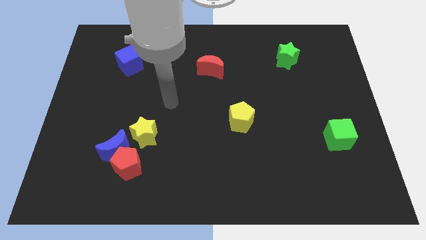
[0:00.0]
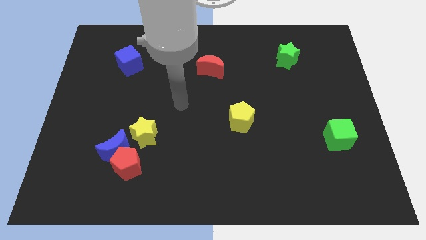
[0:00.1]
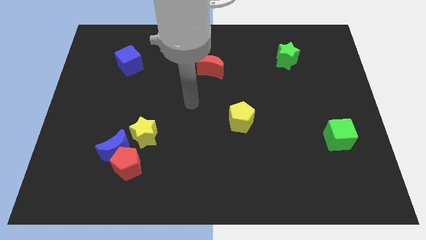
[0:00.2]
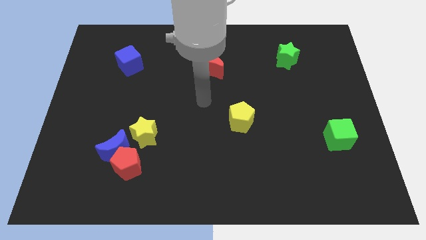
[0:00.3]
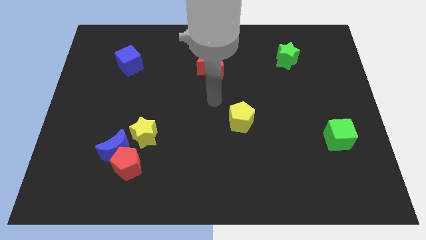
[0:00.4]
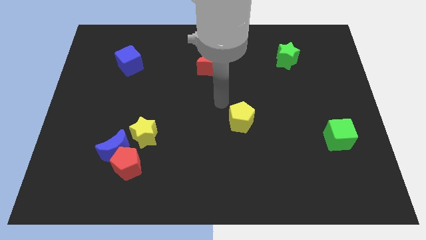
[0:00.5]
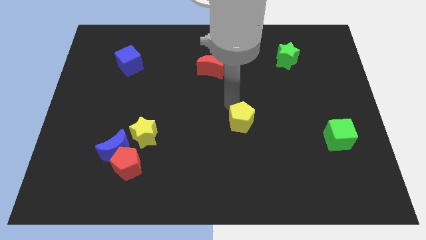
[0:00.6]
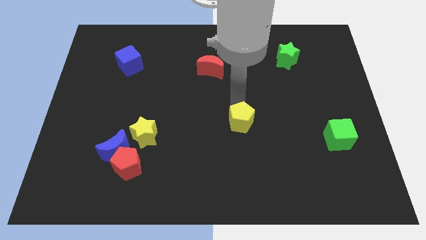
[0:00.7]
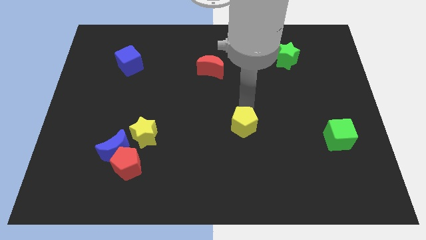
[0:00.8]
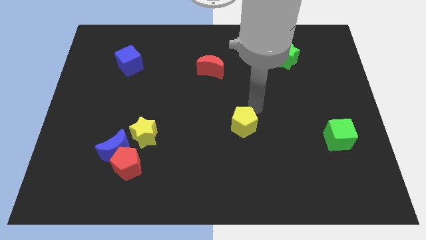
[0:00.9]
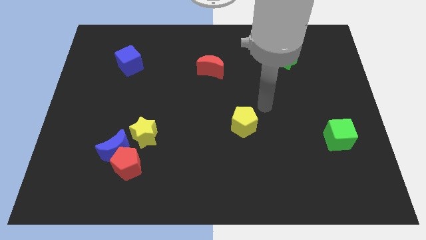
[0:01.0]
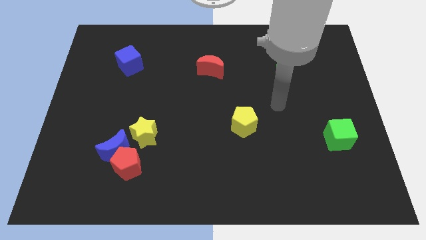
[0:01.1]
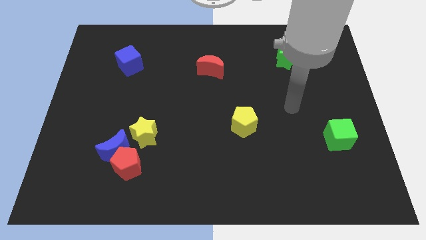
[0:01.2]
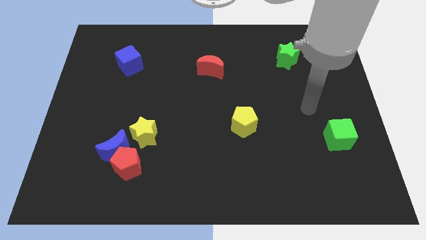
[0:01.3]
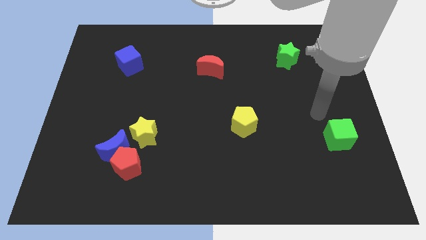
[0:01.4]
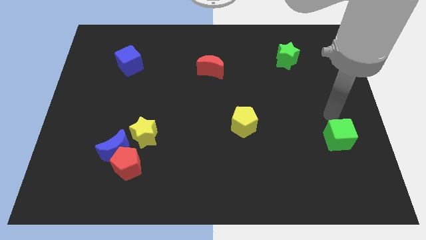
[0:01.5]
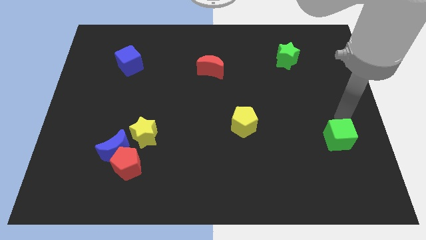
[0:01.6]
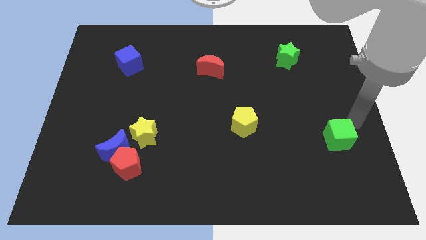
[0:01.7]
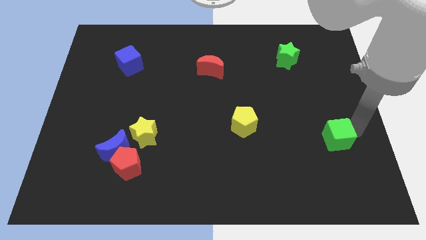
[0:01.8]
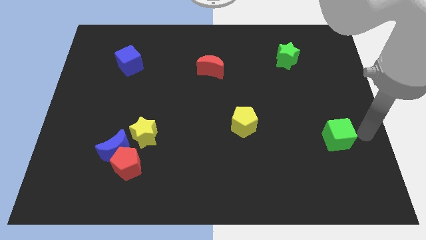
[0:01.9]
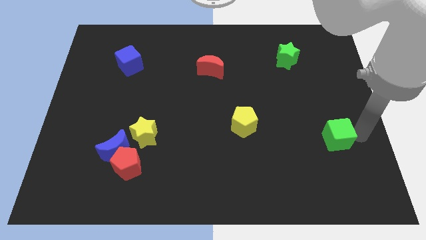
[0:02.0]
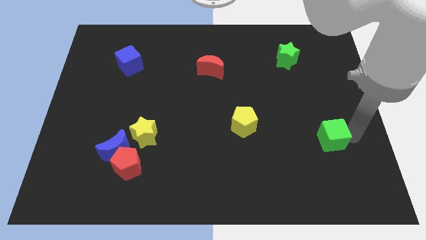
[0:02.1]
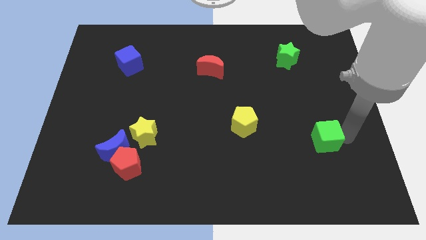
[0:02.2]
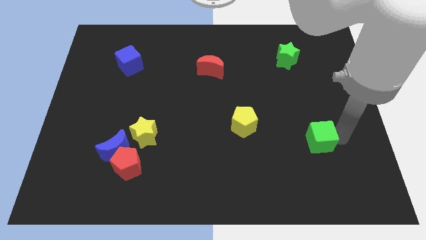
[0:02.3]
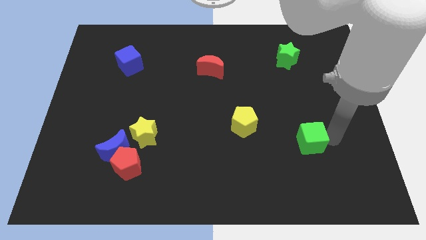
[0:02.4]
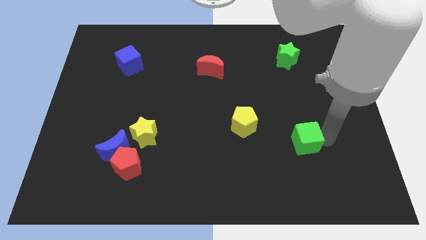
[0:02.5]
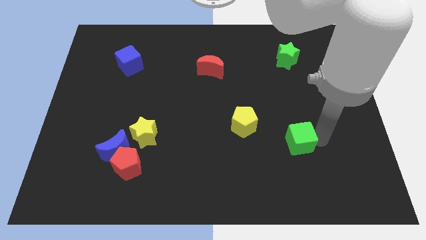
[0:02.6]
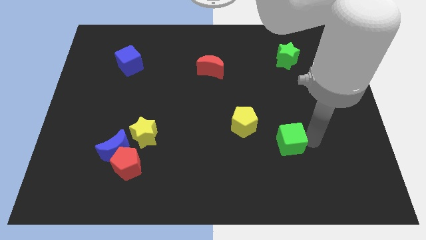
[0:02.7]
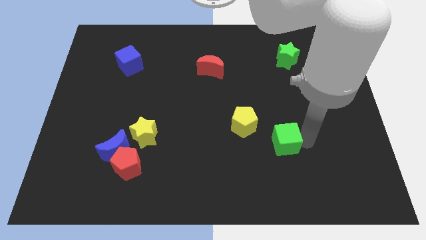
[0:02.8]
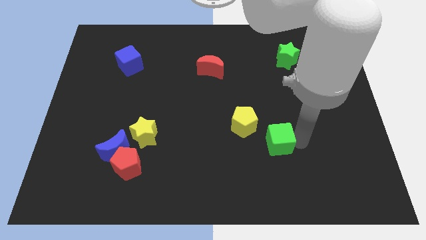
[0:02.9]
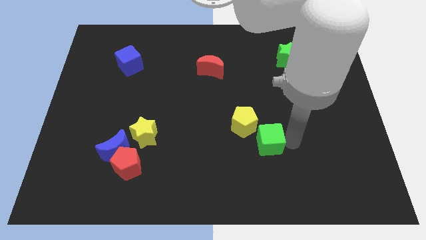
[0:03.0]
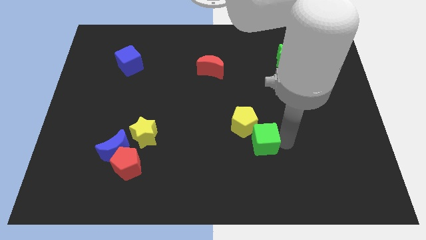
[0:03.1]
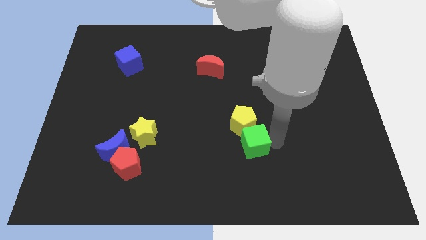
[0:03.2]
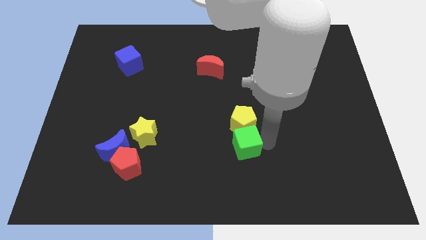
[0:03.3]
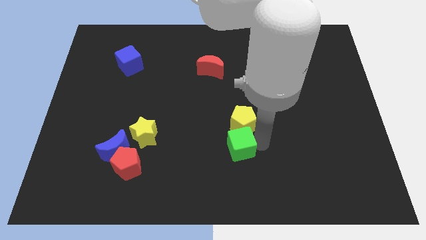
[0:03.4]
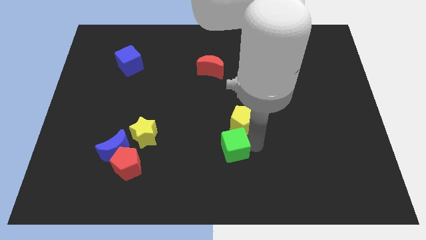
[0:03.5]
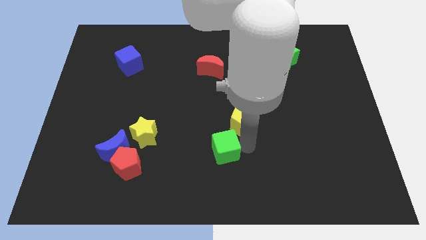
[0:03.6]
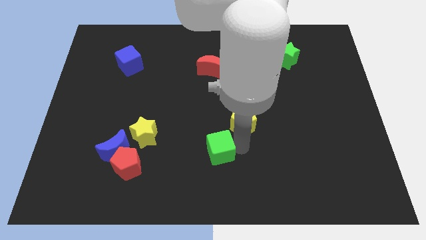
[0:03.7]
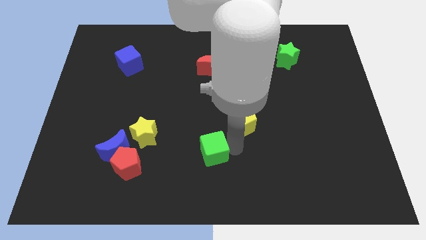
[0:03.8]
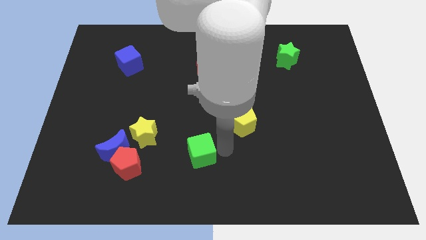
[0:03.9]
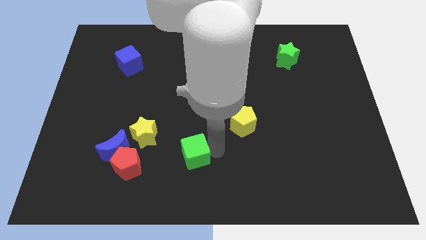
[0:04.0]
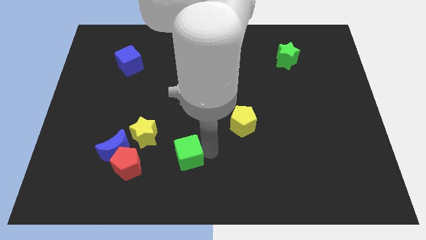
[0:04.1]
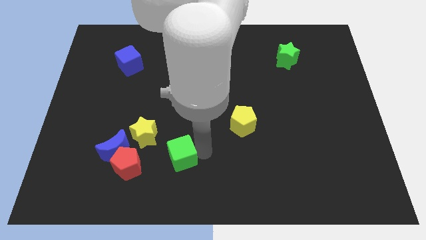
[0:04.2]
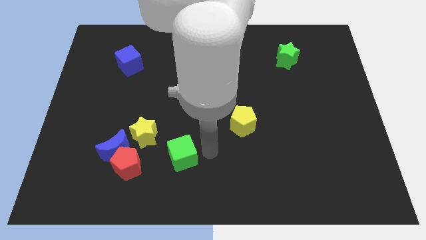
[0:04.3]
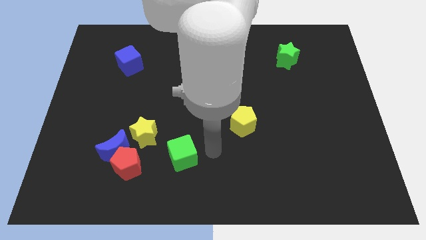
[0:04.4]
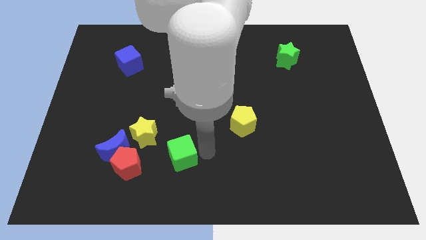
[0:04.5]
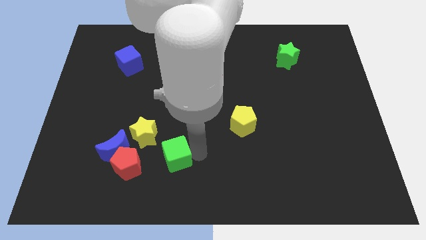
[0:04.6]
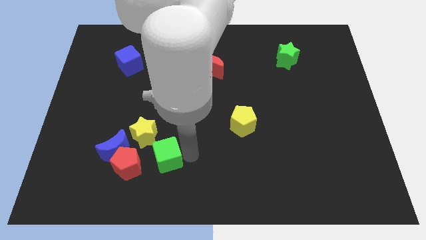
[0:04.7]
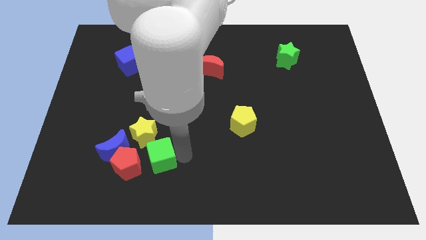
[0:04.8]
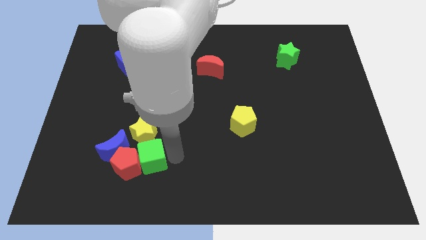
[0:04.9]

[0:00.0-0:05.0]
move the green cube towards the red pentagon

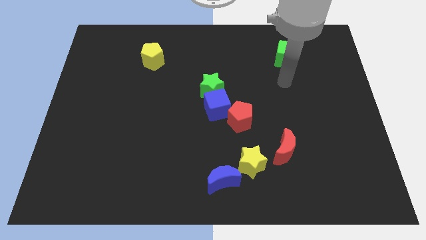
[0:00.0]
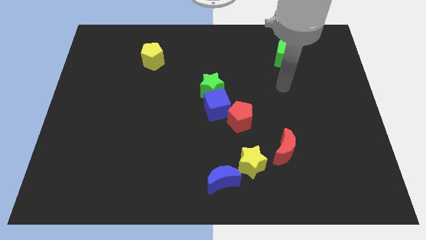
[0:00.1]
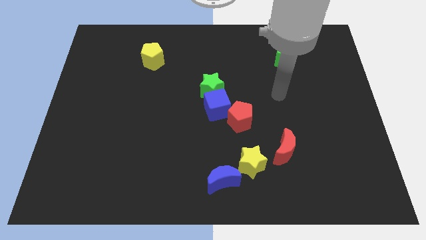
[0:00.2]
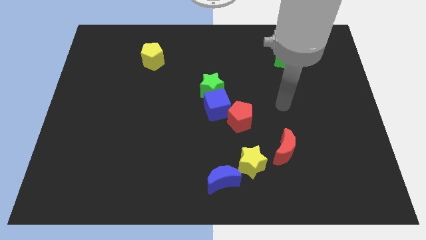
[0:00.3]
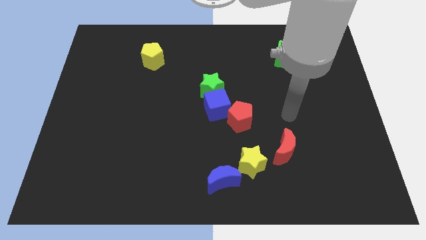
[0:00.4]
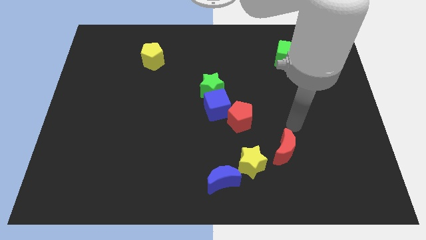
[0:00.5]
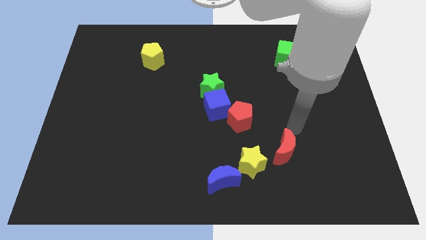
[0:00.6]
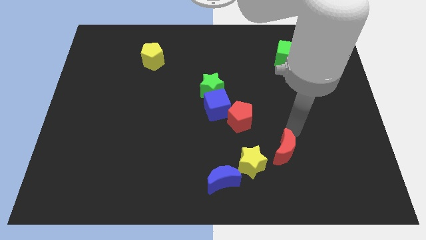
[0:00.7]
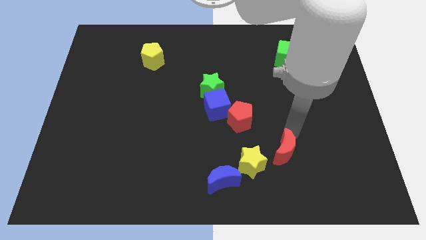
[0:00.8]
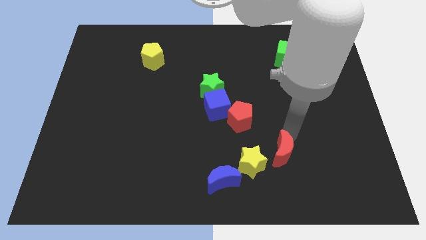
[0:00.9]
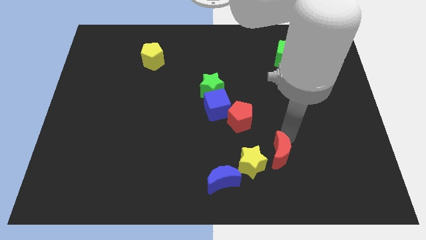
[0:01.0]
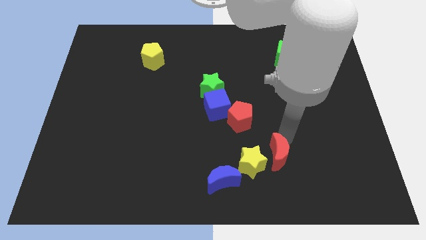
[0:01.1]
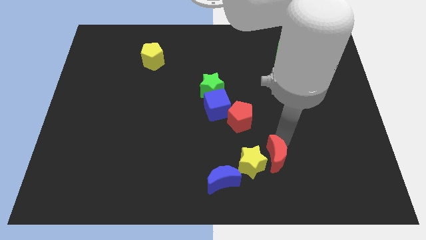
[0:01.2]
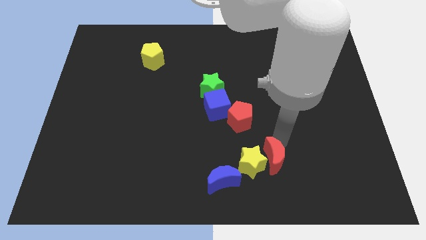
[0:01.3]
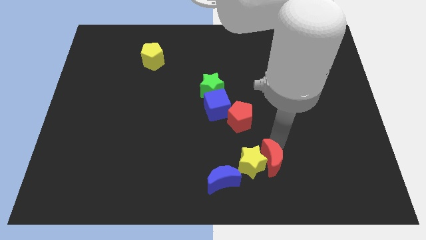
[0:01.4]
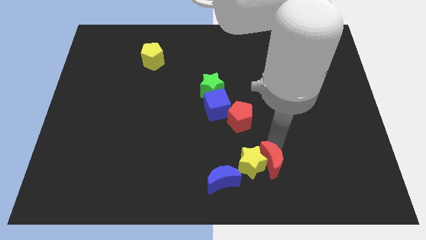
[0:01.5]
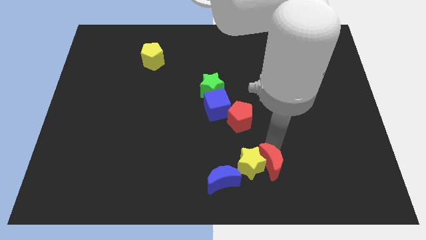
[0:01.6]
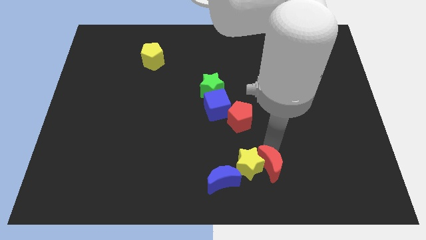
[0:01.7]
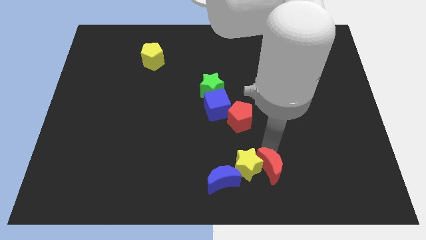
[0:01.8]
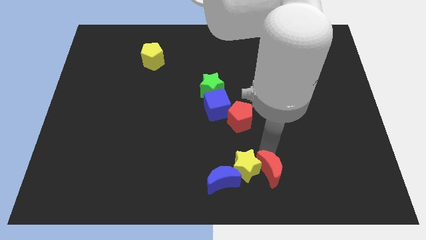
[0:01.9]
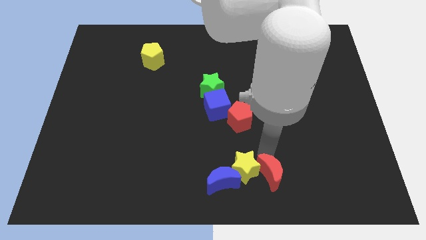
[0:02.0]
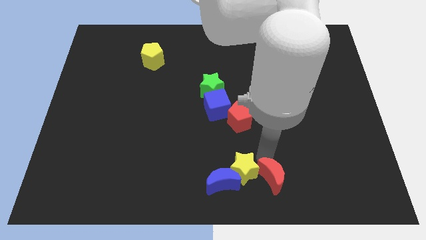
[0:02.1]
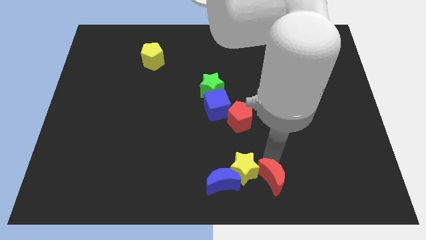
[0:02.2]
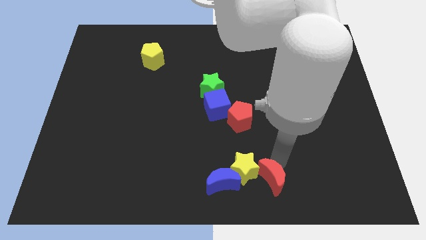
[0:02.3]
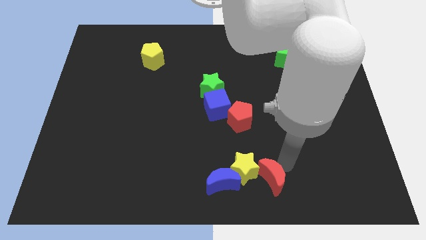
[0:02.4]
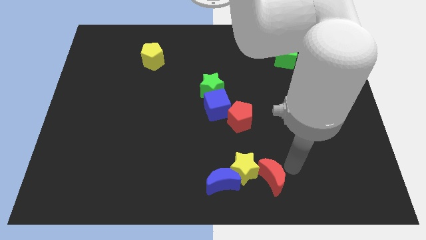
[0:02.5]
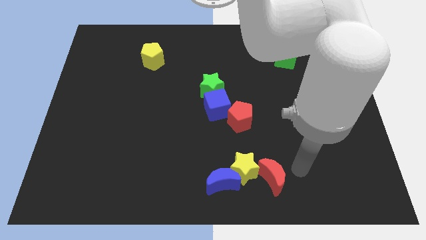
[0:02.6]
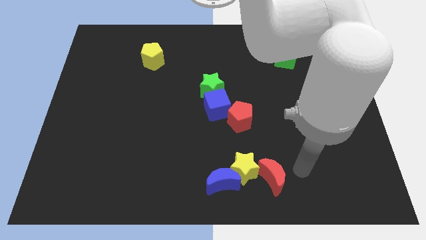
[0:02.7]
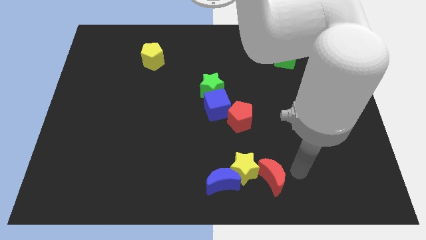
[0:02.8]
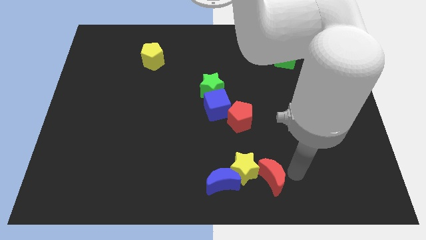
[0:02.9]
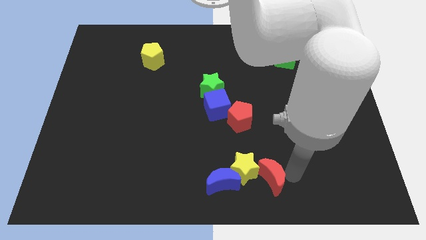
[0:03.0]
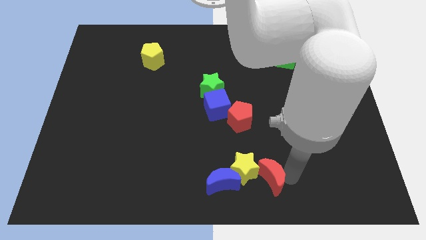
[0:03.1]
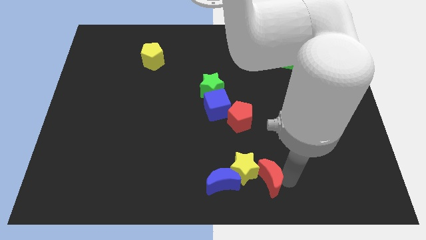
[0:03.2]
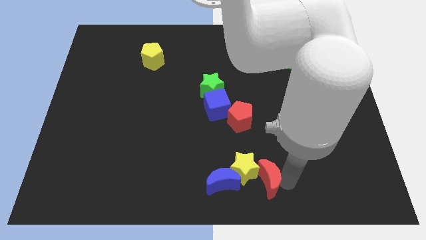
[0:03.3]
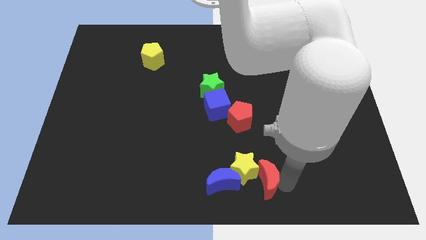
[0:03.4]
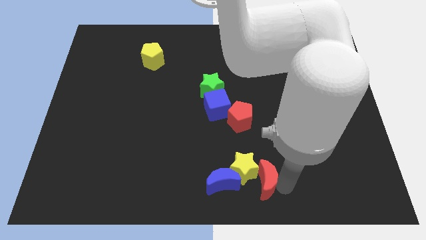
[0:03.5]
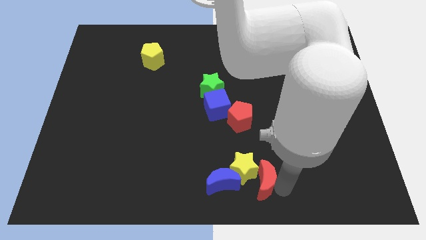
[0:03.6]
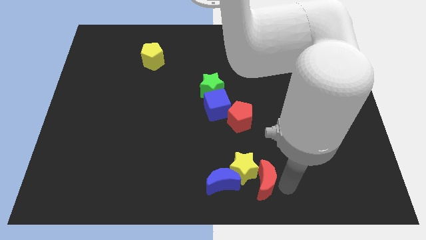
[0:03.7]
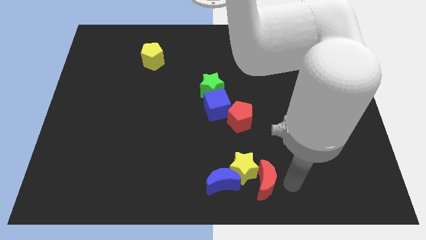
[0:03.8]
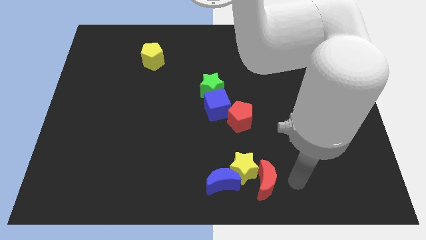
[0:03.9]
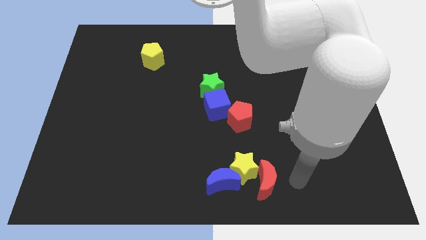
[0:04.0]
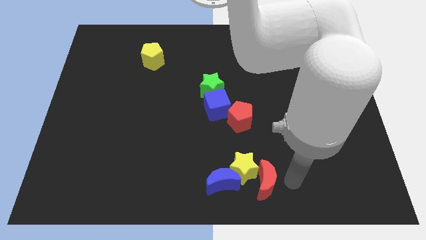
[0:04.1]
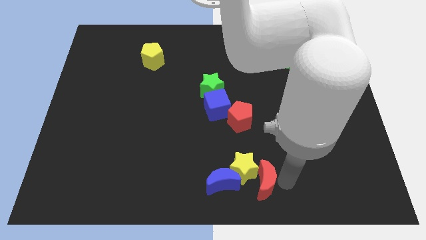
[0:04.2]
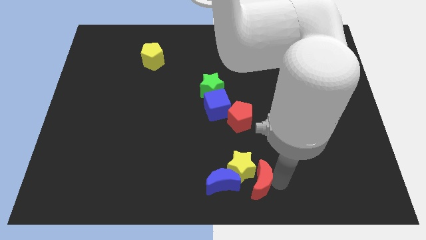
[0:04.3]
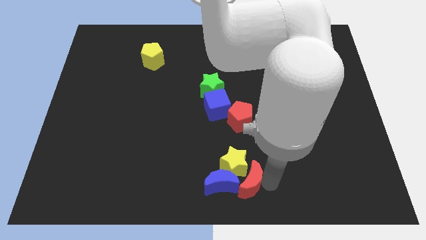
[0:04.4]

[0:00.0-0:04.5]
move the red moon close to the blue moon
